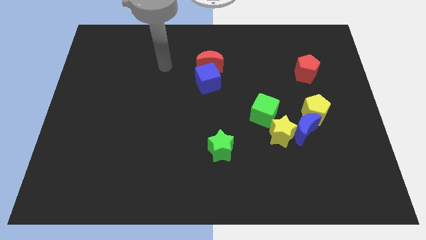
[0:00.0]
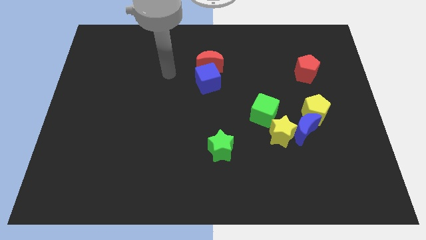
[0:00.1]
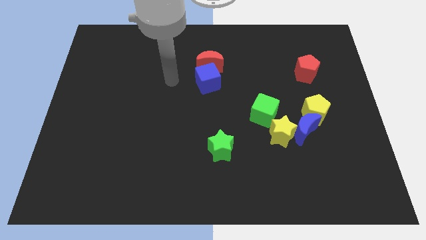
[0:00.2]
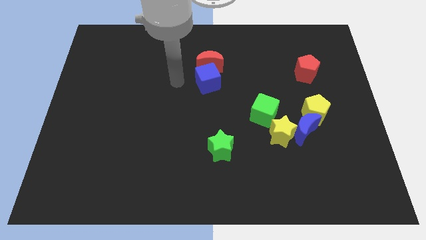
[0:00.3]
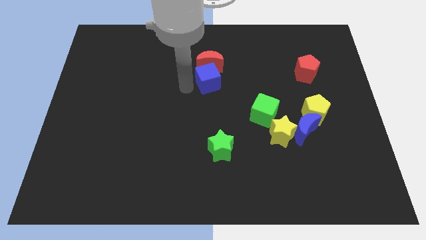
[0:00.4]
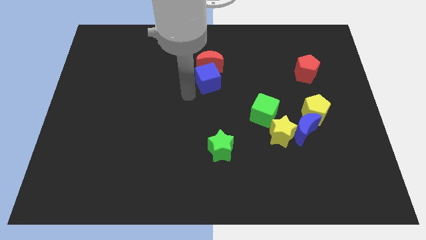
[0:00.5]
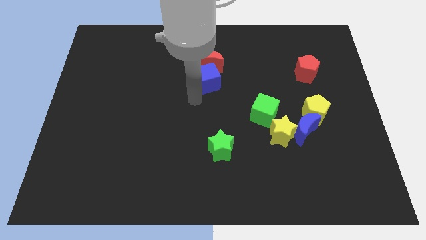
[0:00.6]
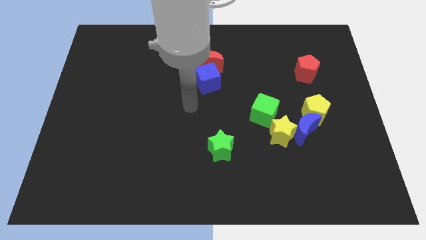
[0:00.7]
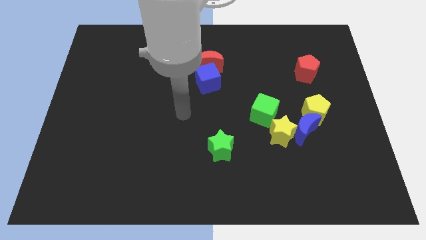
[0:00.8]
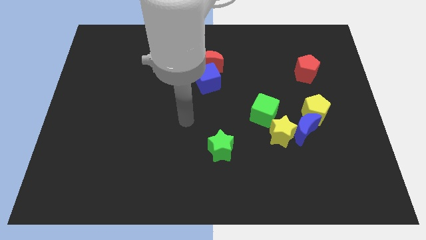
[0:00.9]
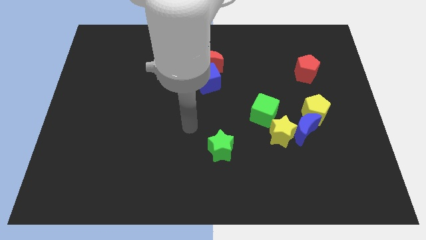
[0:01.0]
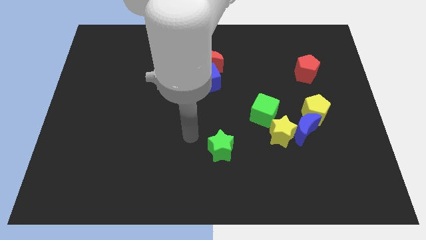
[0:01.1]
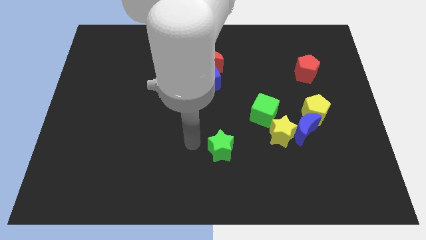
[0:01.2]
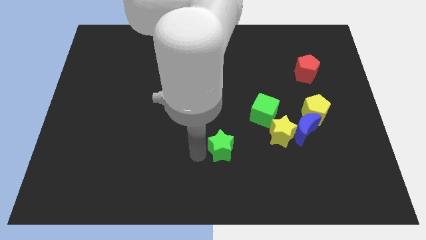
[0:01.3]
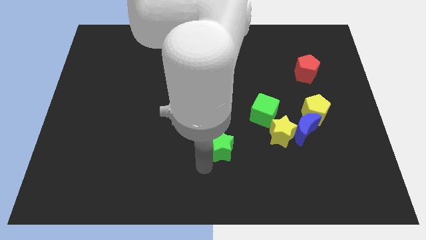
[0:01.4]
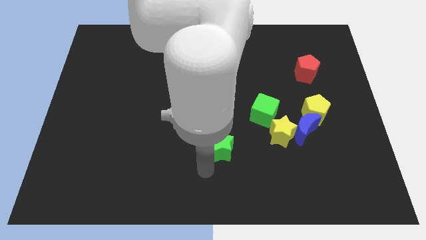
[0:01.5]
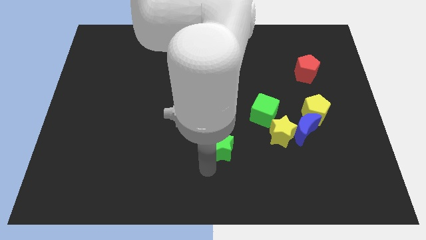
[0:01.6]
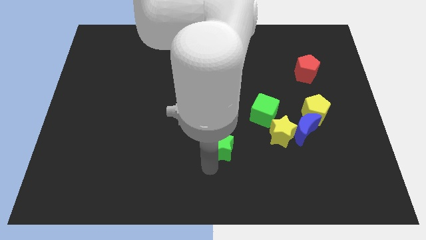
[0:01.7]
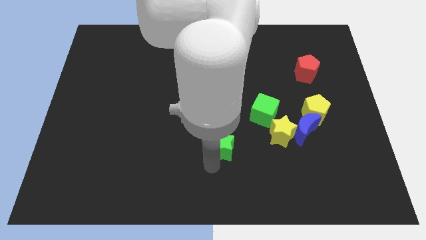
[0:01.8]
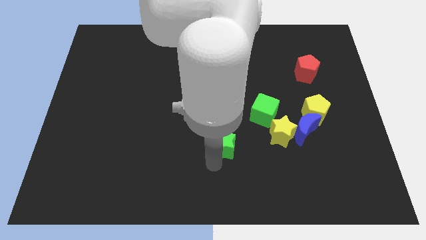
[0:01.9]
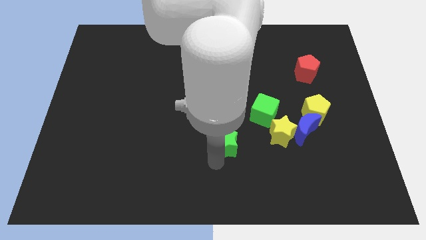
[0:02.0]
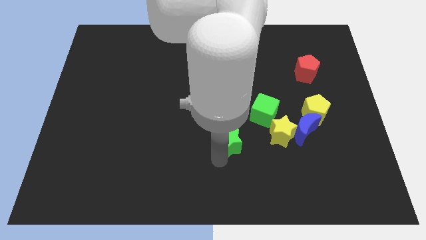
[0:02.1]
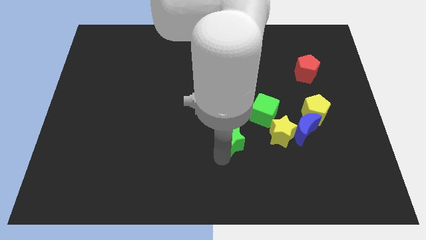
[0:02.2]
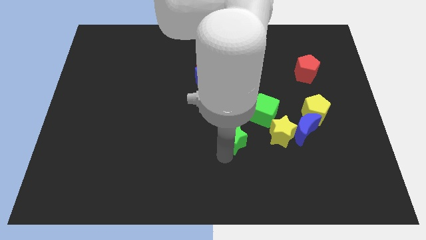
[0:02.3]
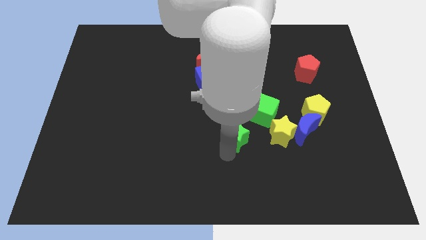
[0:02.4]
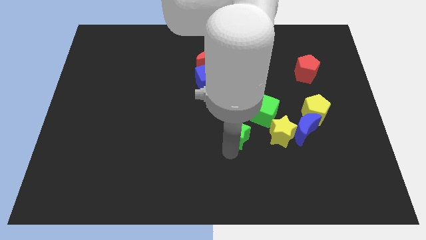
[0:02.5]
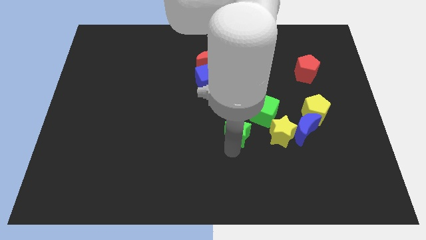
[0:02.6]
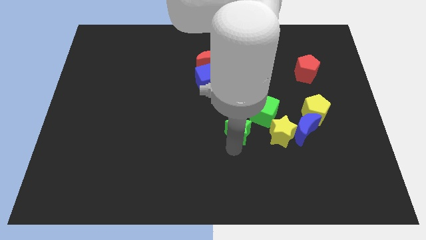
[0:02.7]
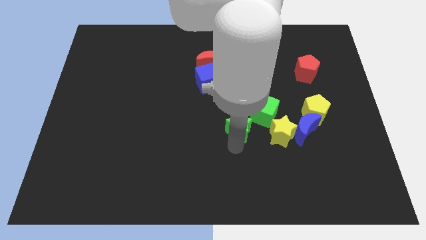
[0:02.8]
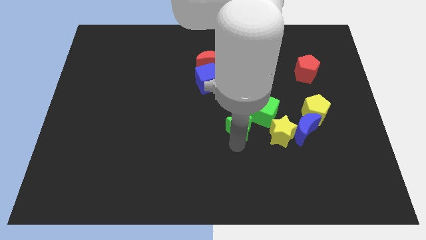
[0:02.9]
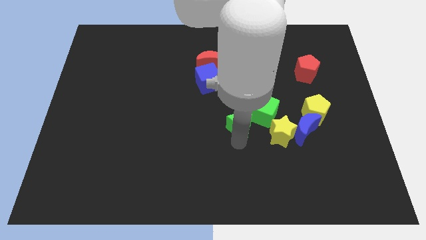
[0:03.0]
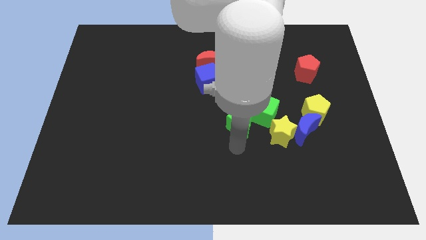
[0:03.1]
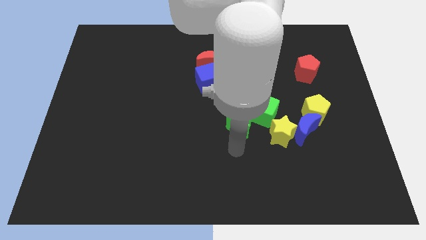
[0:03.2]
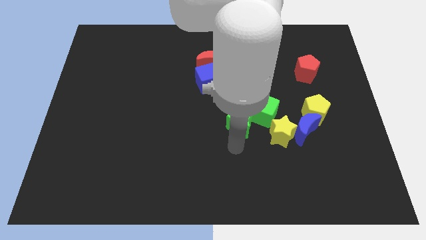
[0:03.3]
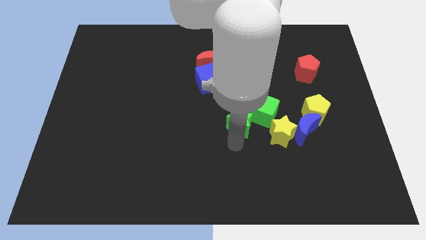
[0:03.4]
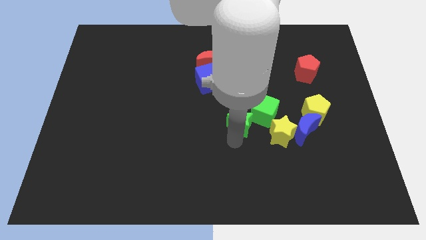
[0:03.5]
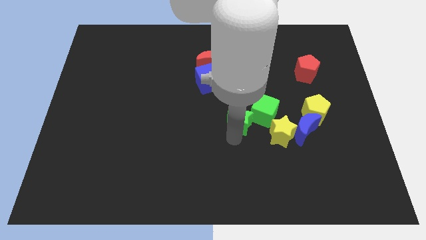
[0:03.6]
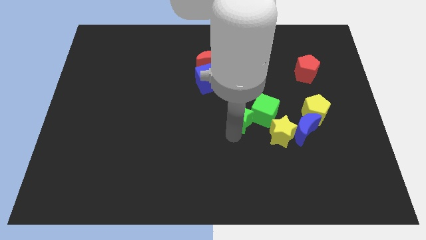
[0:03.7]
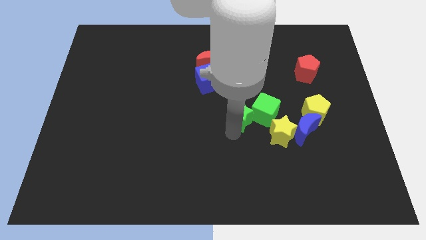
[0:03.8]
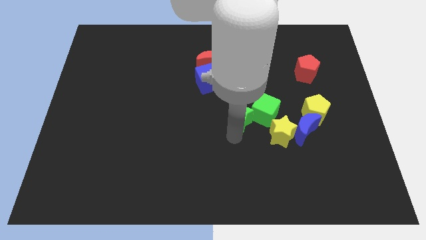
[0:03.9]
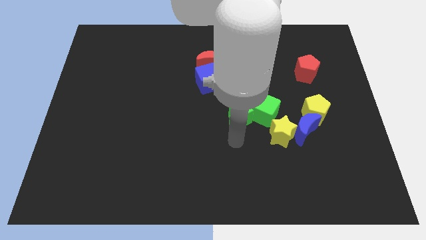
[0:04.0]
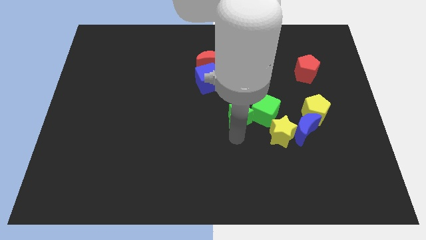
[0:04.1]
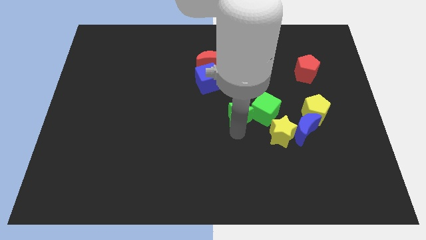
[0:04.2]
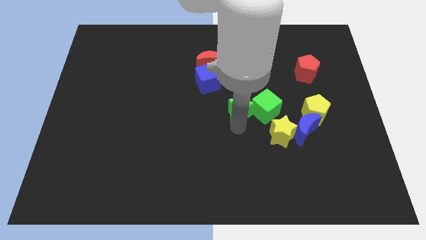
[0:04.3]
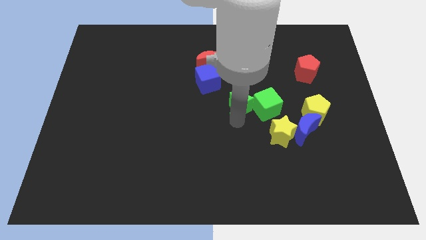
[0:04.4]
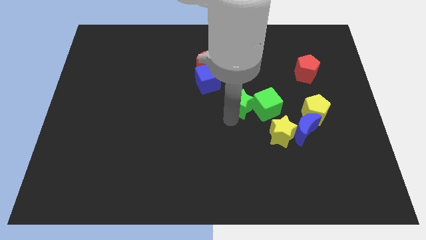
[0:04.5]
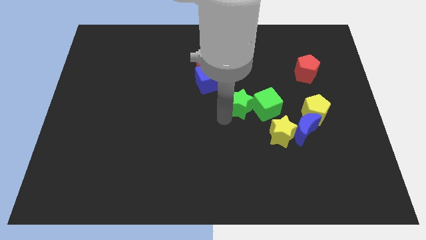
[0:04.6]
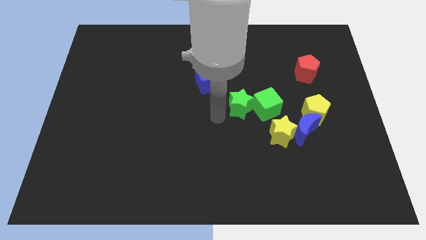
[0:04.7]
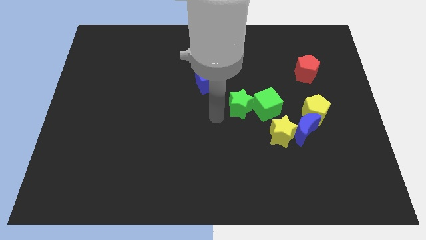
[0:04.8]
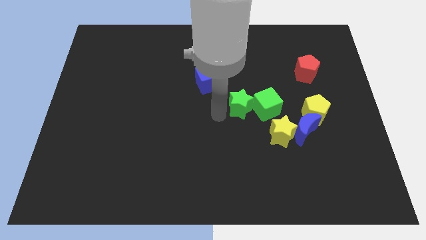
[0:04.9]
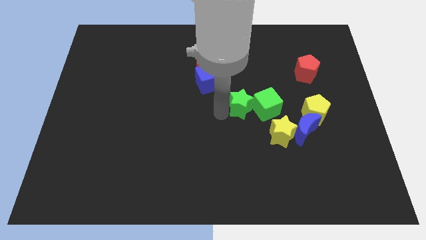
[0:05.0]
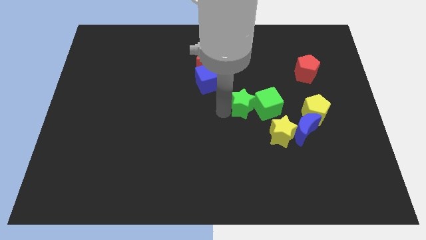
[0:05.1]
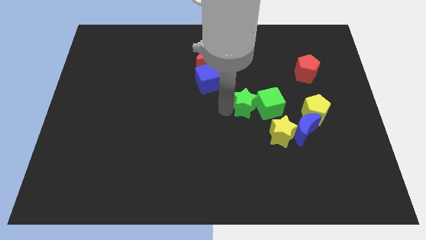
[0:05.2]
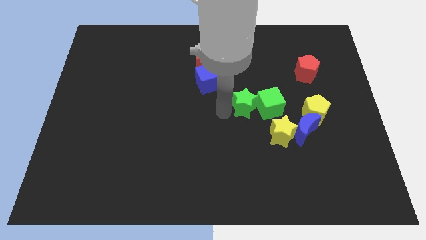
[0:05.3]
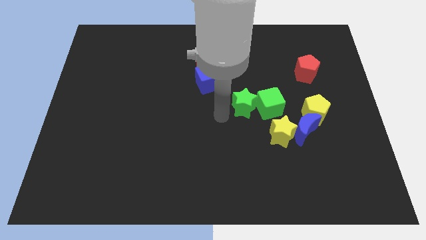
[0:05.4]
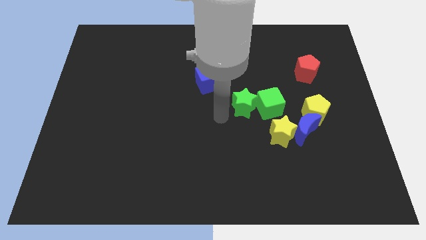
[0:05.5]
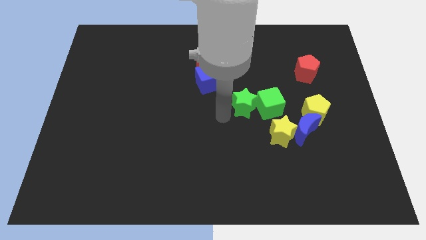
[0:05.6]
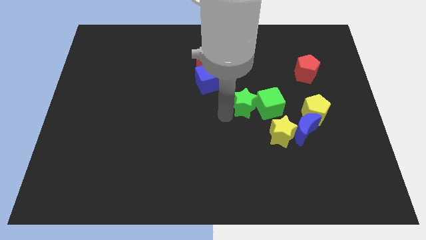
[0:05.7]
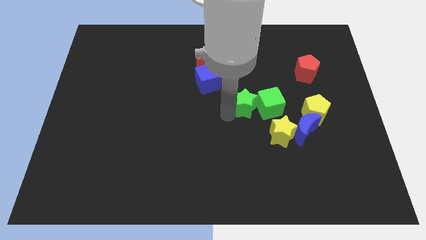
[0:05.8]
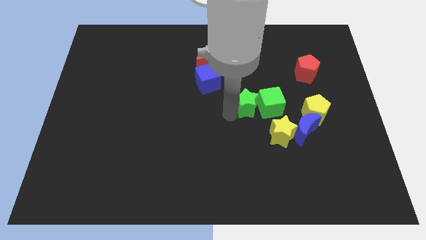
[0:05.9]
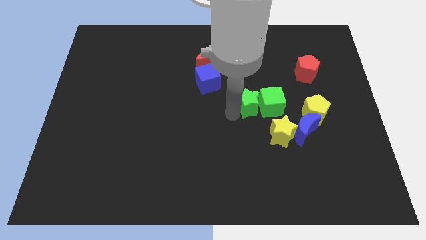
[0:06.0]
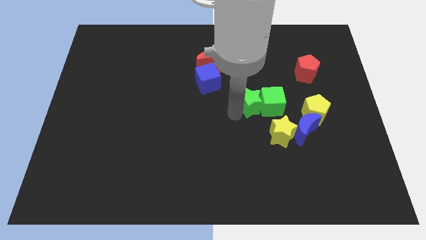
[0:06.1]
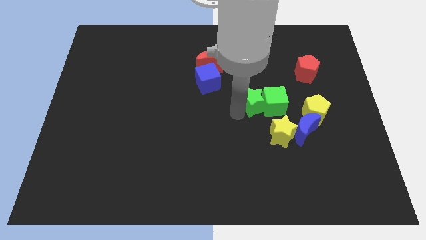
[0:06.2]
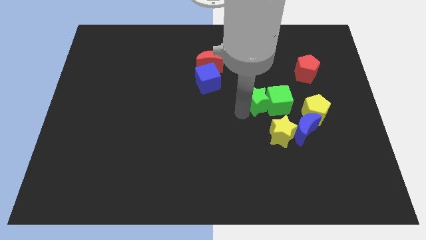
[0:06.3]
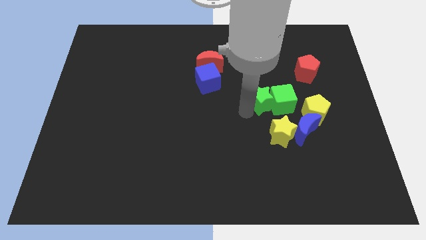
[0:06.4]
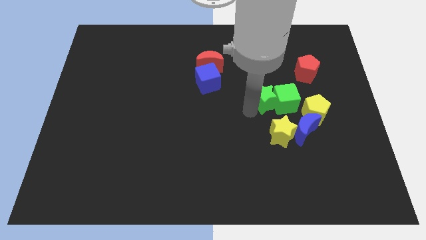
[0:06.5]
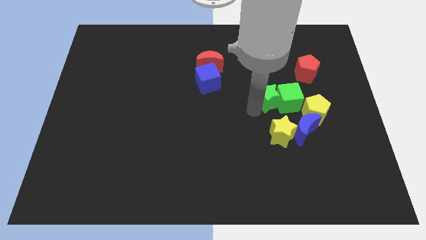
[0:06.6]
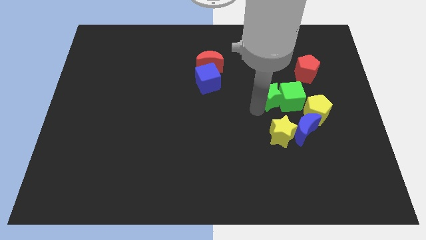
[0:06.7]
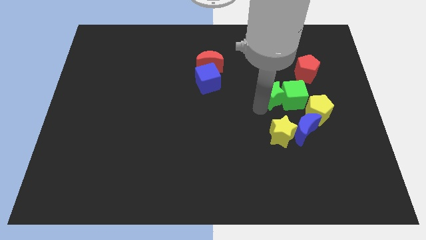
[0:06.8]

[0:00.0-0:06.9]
push the green star diagonally down and to the left of the red pentagon
